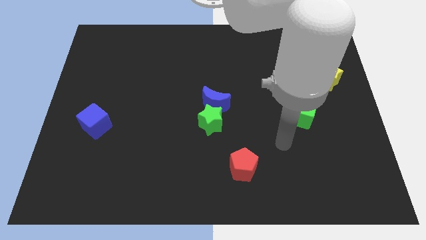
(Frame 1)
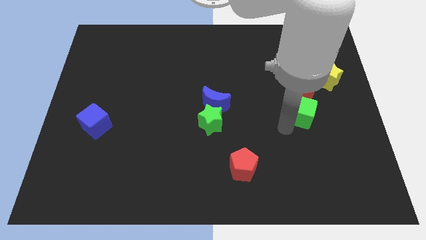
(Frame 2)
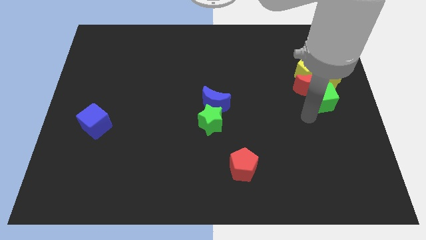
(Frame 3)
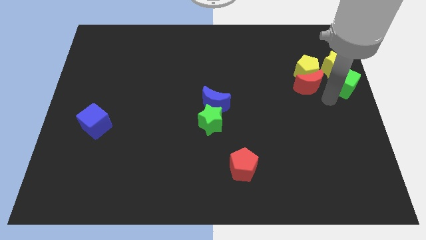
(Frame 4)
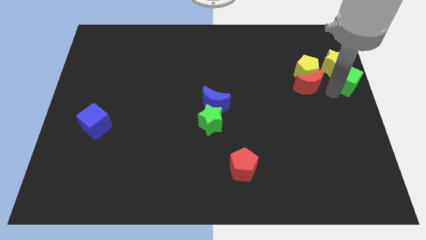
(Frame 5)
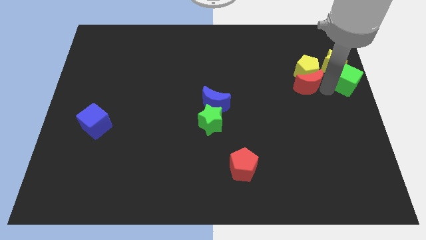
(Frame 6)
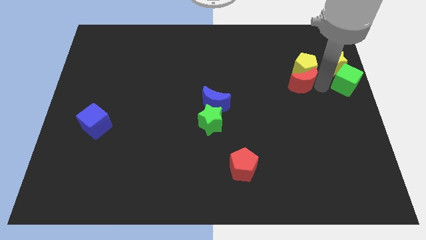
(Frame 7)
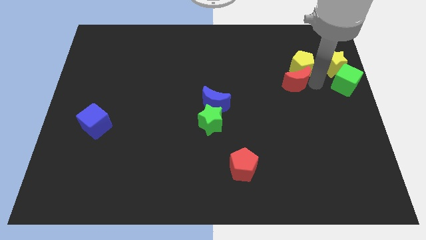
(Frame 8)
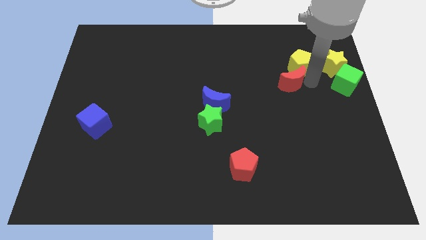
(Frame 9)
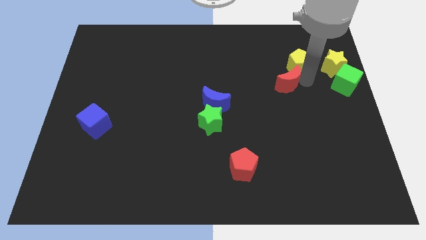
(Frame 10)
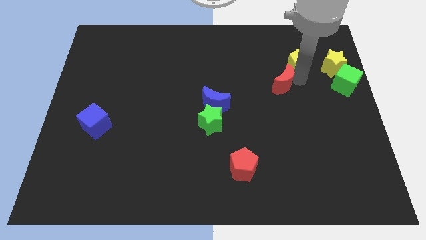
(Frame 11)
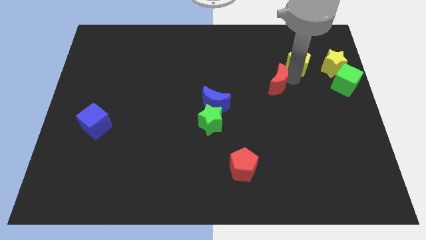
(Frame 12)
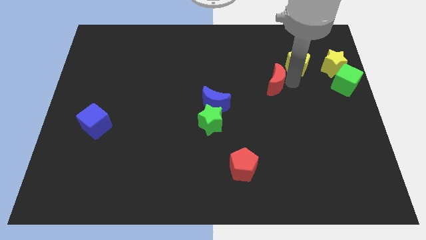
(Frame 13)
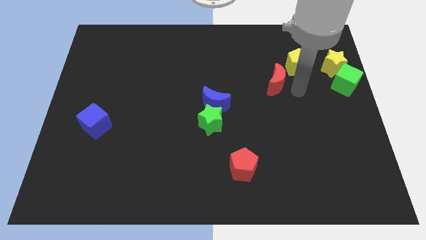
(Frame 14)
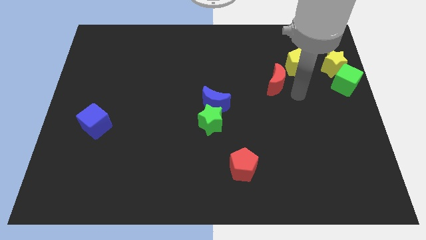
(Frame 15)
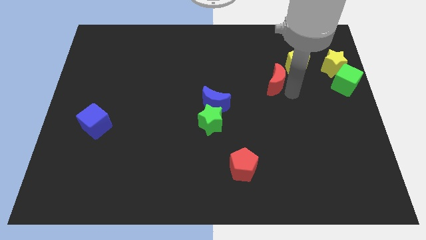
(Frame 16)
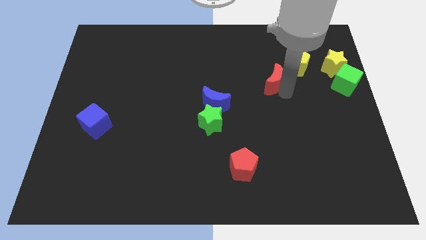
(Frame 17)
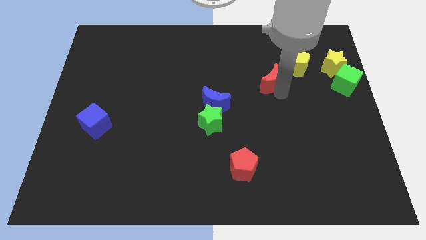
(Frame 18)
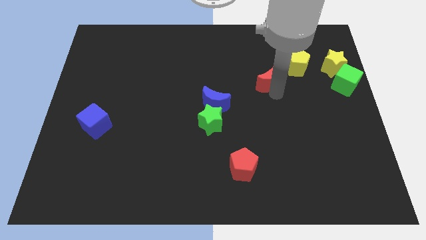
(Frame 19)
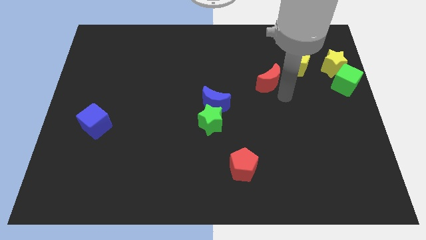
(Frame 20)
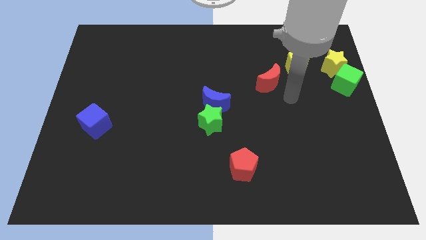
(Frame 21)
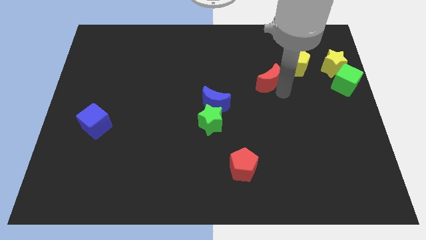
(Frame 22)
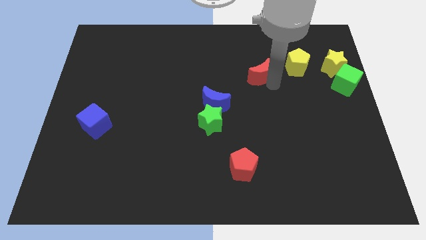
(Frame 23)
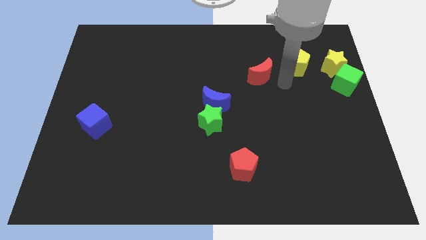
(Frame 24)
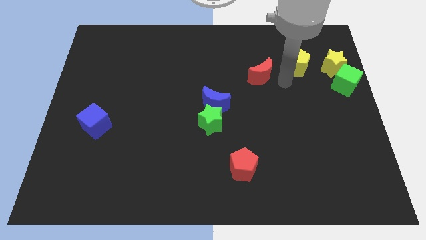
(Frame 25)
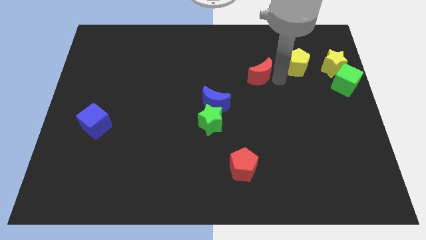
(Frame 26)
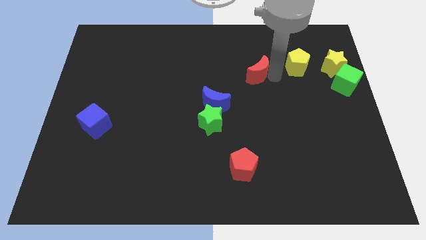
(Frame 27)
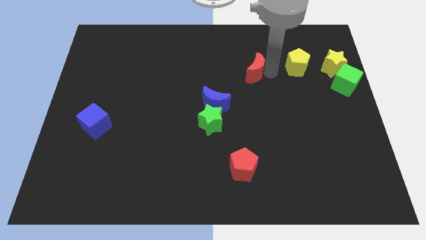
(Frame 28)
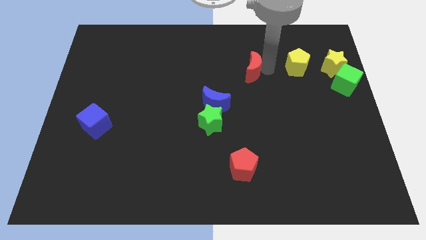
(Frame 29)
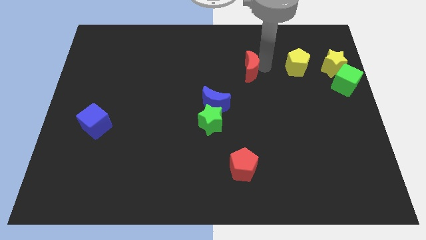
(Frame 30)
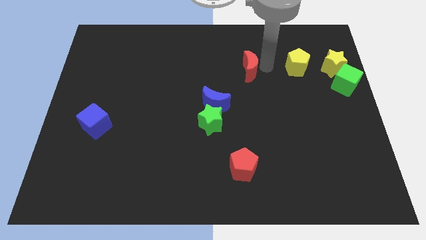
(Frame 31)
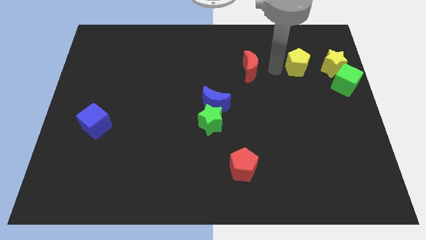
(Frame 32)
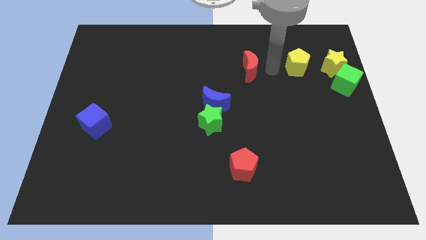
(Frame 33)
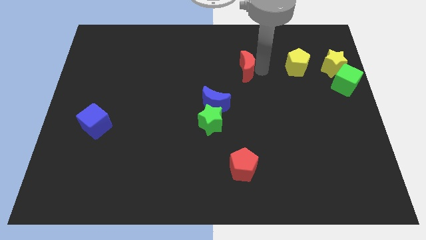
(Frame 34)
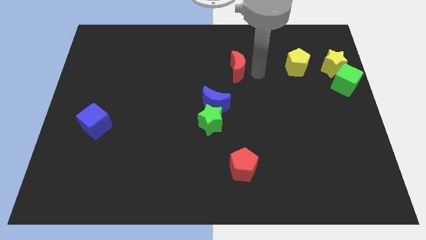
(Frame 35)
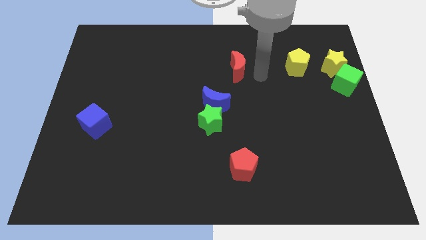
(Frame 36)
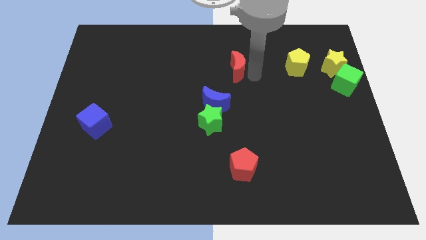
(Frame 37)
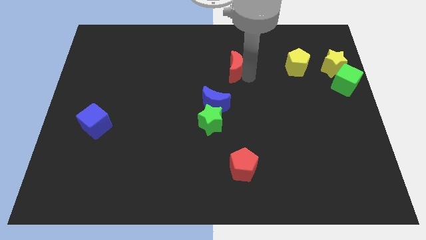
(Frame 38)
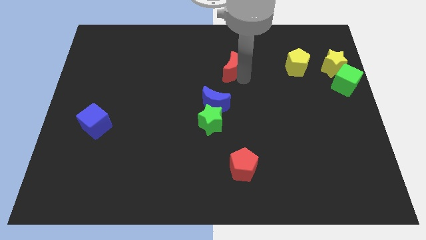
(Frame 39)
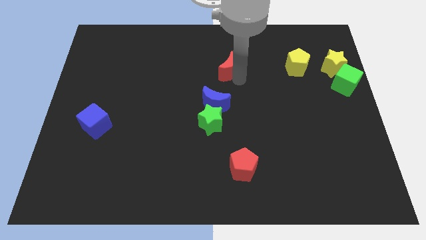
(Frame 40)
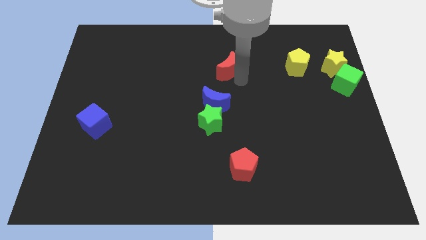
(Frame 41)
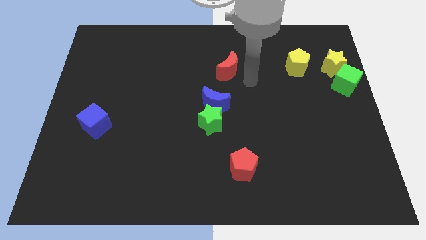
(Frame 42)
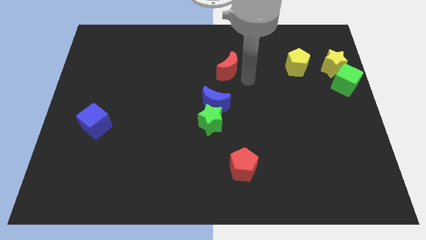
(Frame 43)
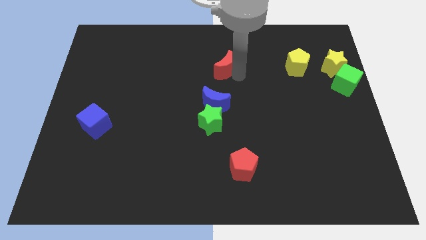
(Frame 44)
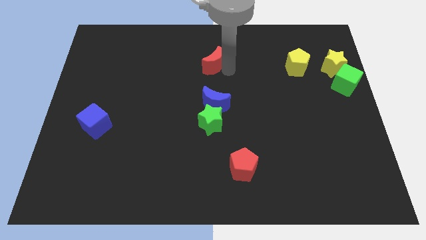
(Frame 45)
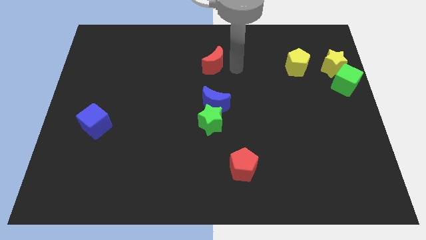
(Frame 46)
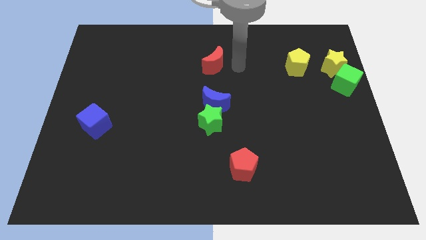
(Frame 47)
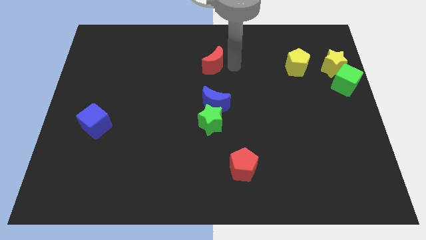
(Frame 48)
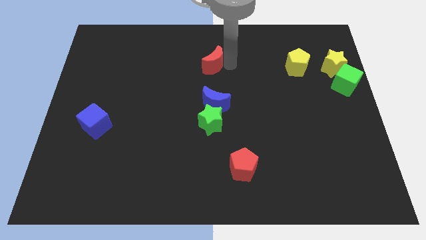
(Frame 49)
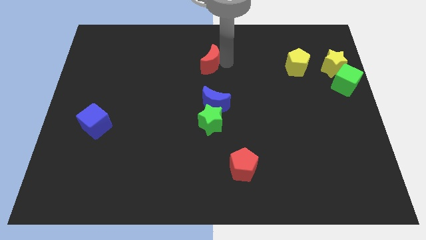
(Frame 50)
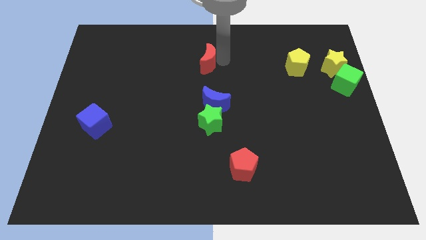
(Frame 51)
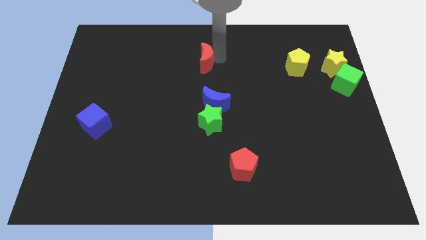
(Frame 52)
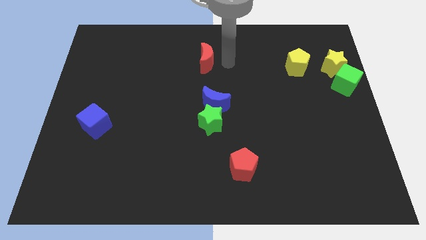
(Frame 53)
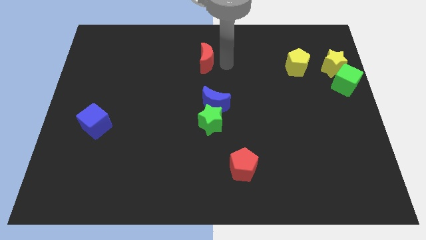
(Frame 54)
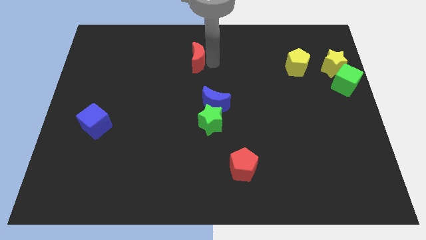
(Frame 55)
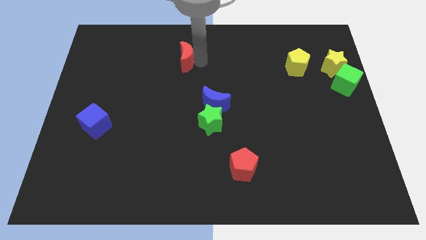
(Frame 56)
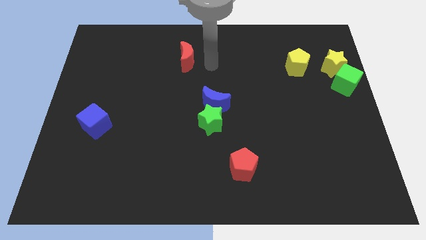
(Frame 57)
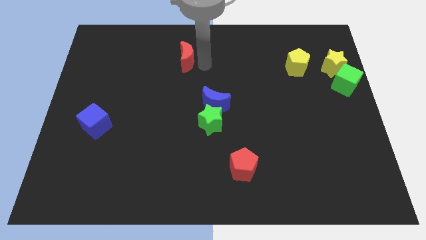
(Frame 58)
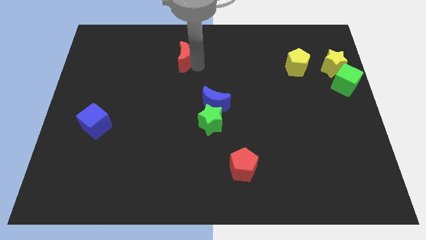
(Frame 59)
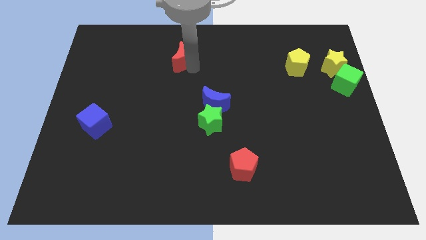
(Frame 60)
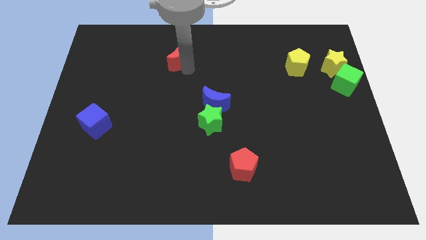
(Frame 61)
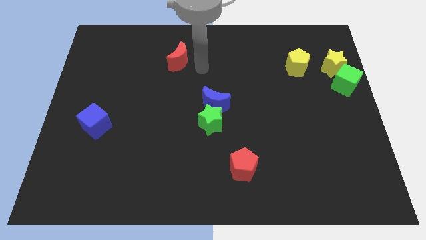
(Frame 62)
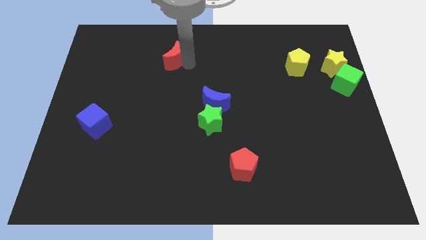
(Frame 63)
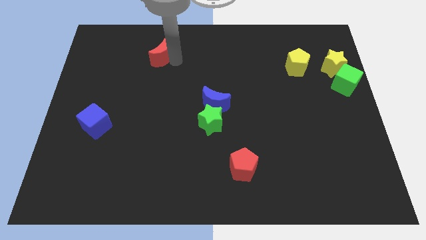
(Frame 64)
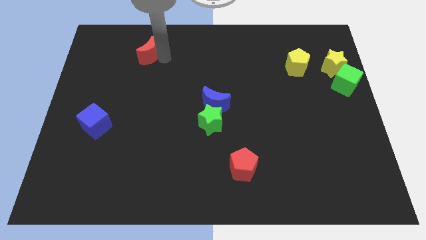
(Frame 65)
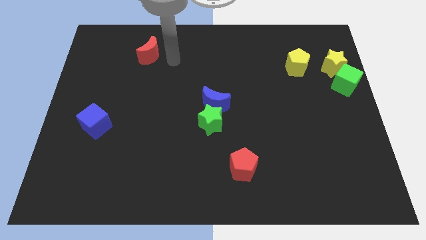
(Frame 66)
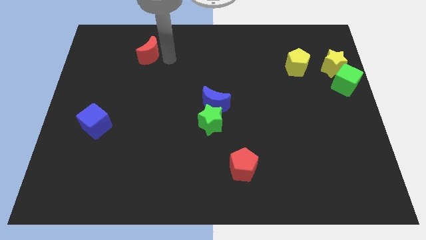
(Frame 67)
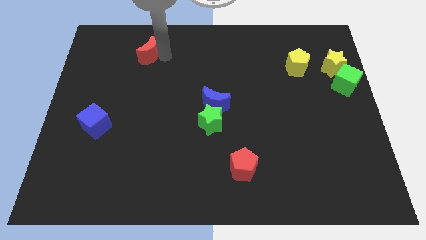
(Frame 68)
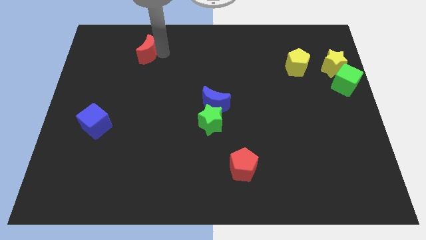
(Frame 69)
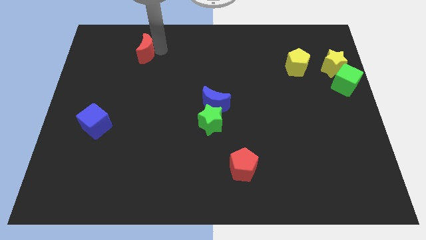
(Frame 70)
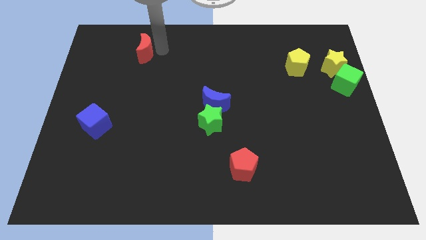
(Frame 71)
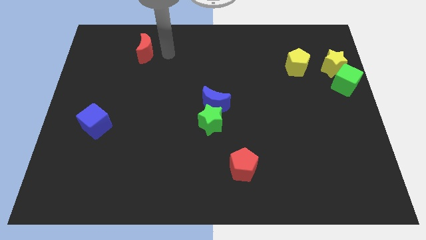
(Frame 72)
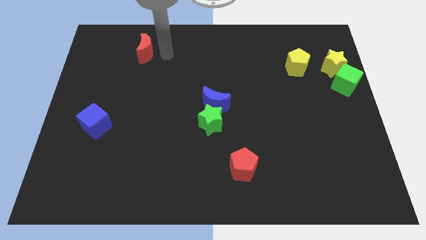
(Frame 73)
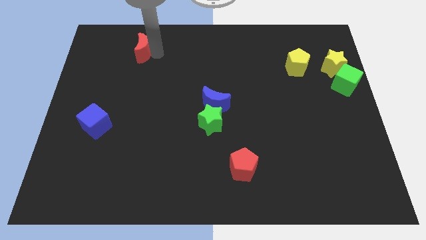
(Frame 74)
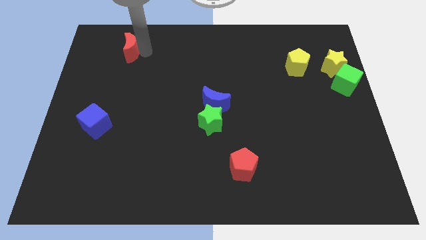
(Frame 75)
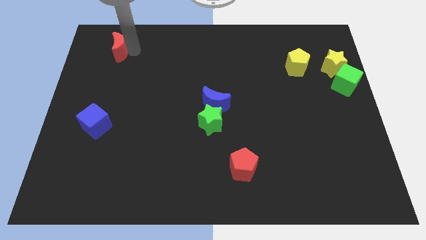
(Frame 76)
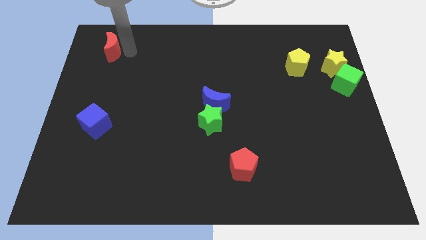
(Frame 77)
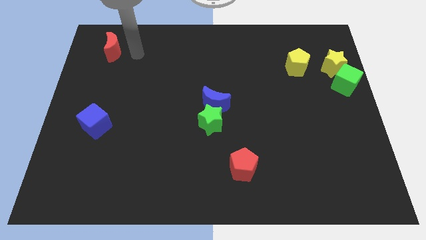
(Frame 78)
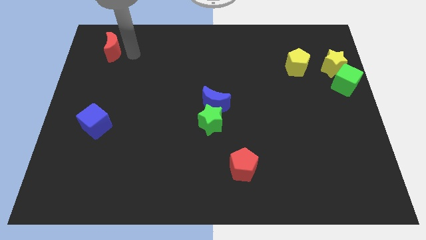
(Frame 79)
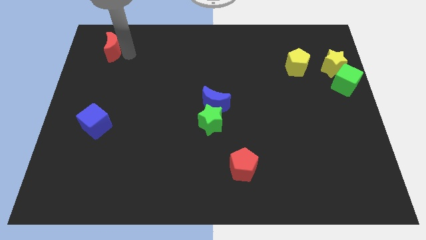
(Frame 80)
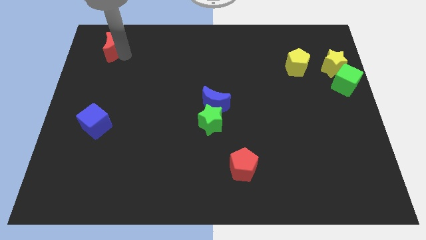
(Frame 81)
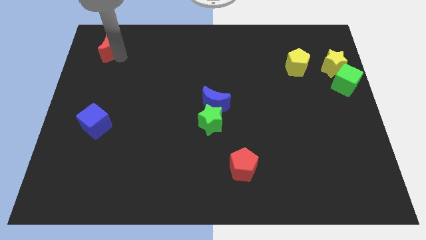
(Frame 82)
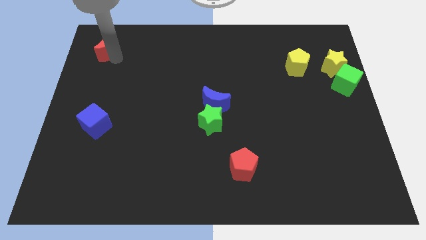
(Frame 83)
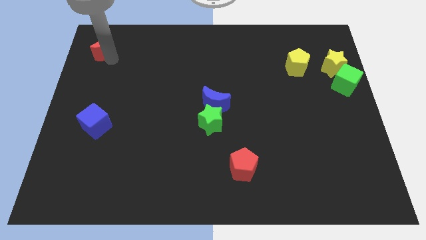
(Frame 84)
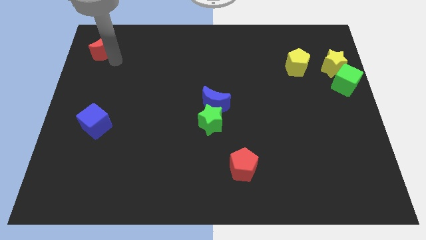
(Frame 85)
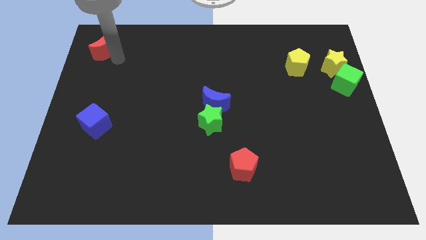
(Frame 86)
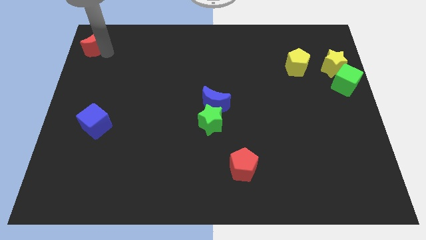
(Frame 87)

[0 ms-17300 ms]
put the red moon to the top left corner
